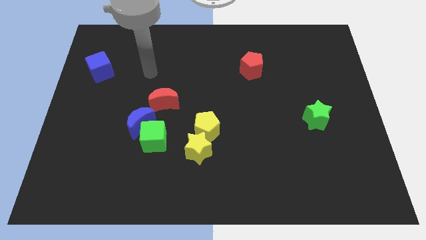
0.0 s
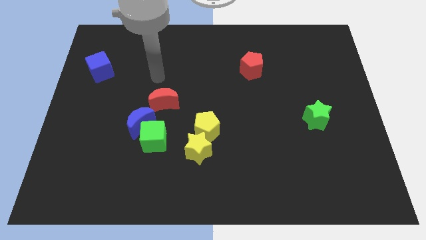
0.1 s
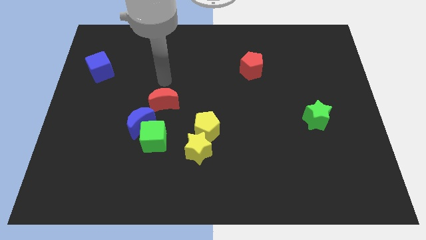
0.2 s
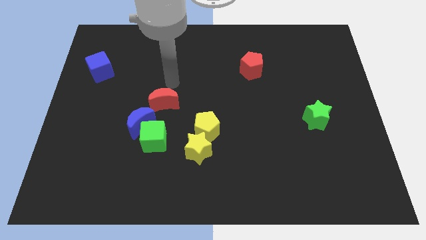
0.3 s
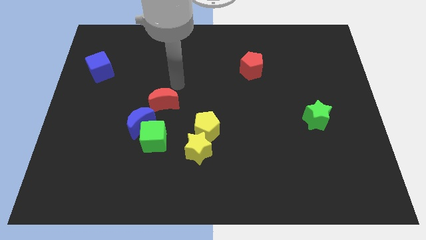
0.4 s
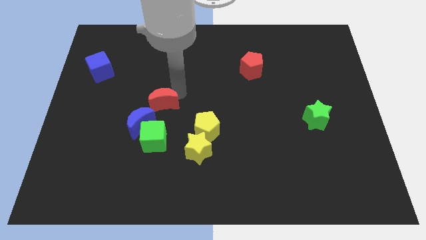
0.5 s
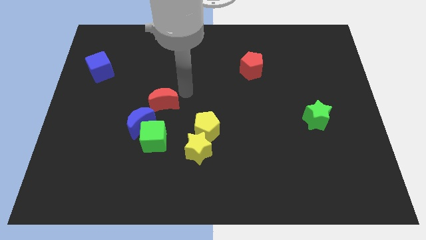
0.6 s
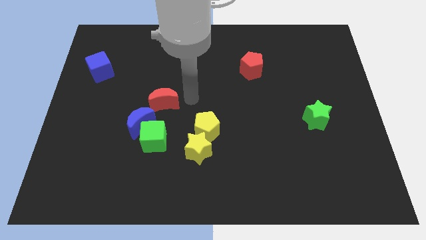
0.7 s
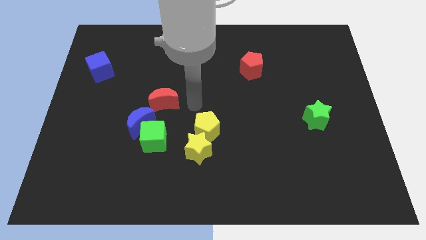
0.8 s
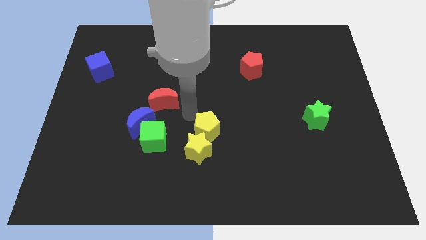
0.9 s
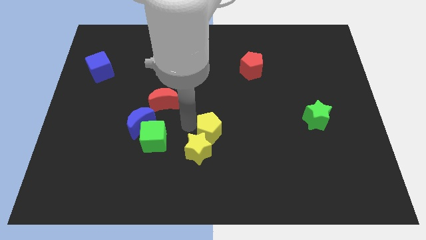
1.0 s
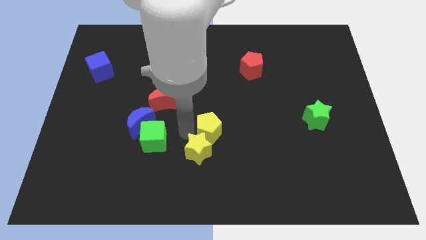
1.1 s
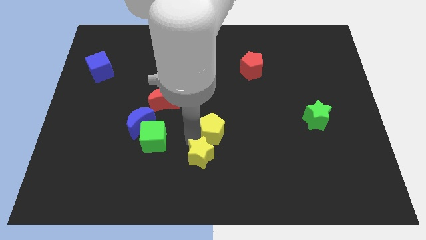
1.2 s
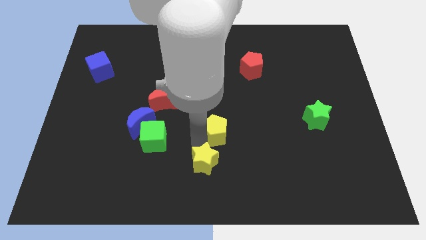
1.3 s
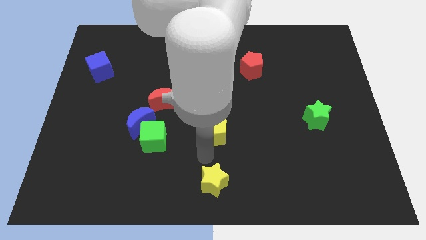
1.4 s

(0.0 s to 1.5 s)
pull the yellow pentagon apart from the yellow star

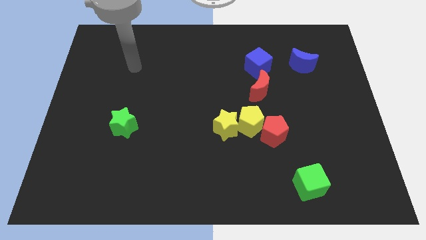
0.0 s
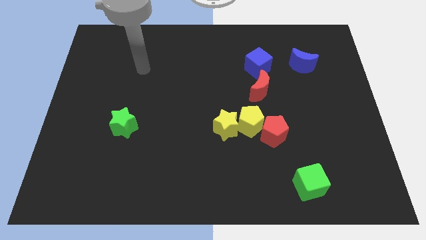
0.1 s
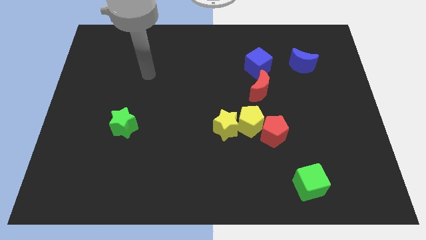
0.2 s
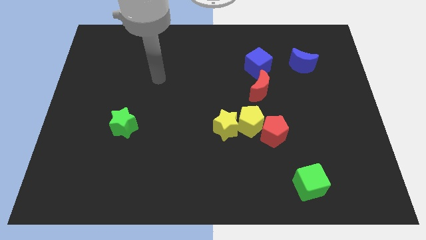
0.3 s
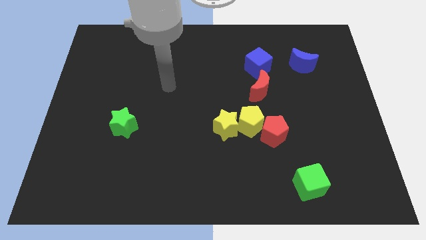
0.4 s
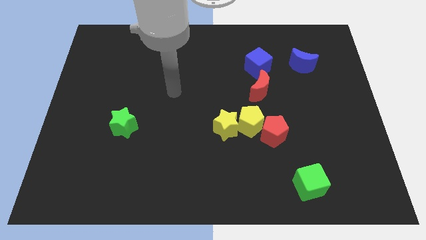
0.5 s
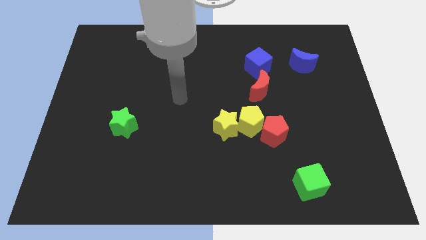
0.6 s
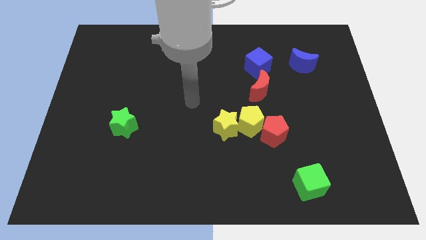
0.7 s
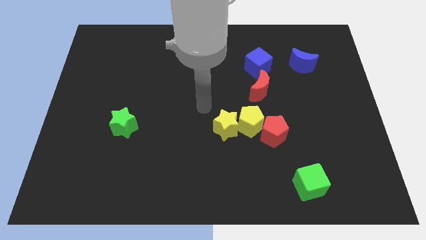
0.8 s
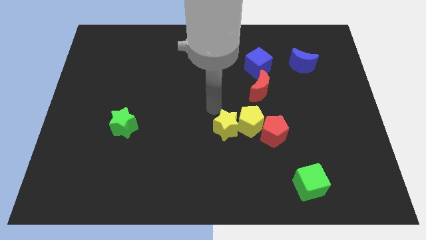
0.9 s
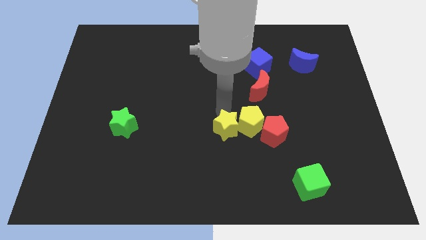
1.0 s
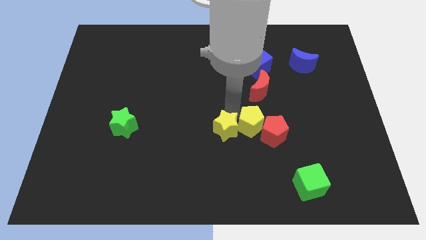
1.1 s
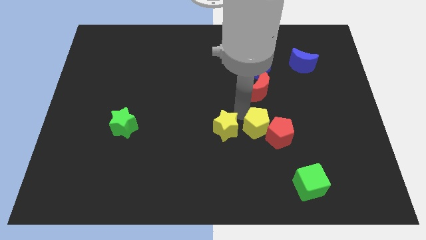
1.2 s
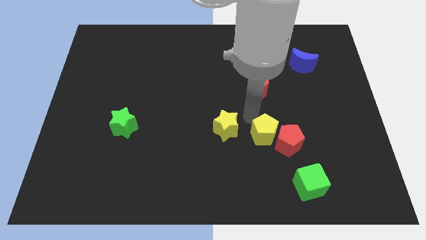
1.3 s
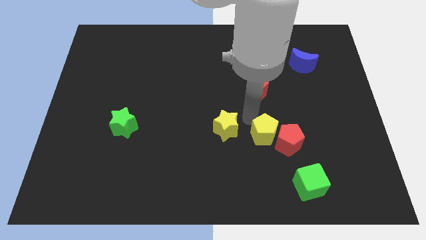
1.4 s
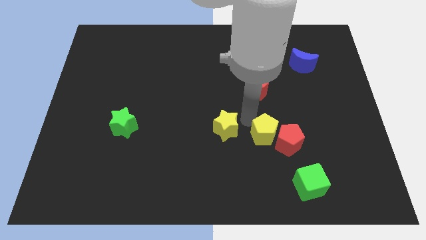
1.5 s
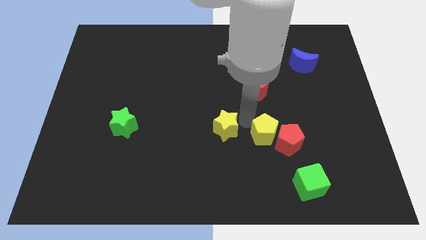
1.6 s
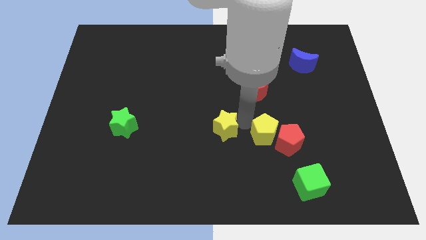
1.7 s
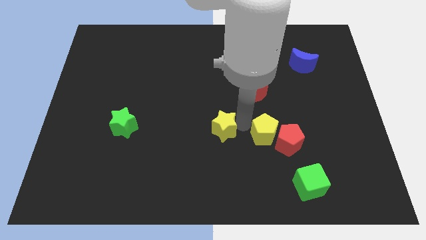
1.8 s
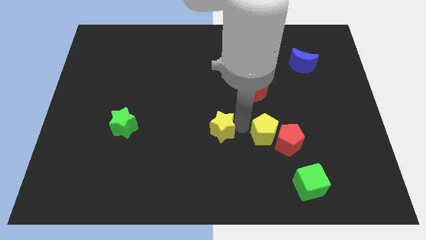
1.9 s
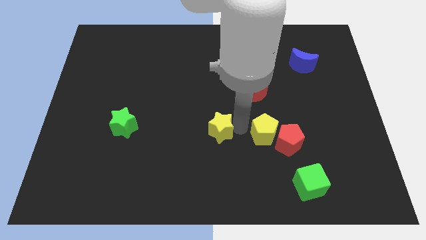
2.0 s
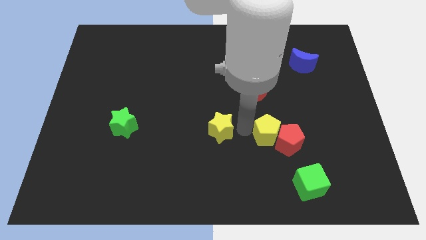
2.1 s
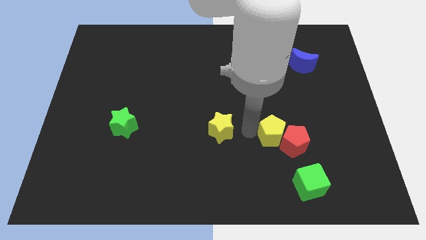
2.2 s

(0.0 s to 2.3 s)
move the yellow star away from the yellow pentagon

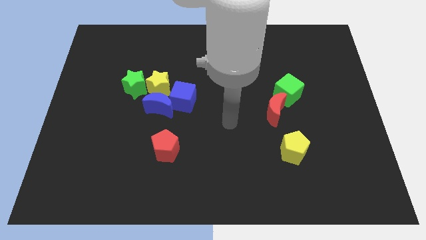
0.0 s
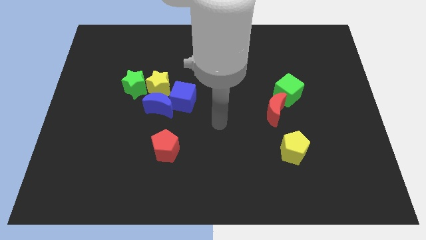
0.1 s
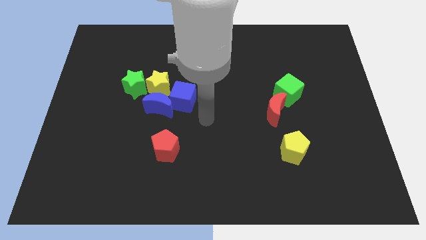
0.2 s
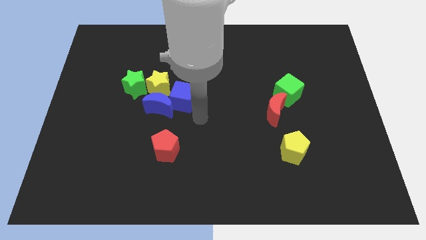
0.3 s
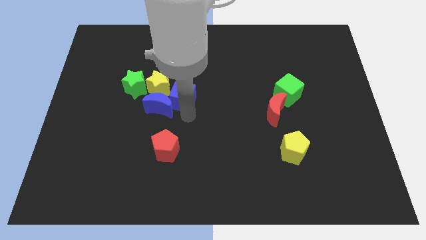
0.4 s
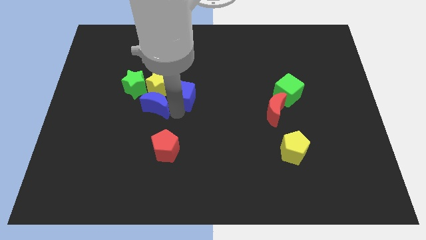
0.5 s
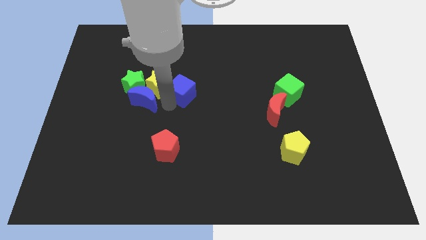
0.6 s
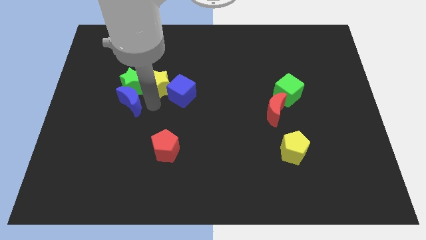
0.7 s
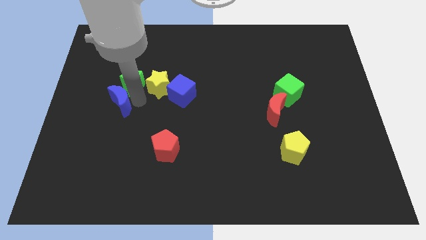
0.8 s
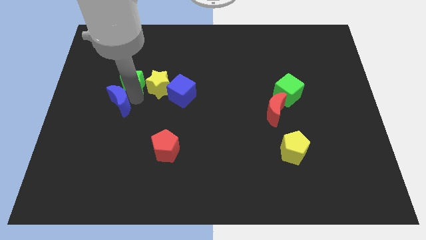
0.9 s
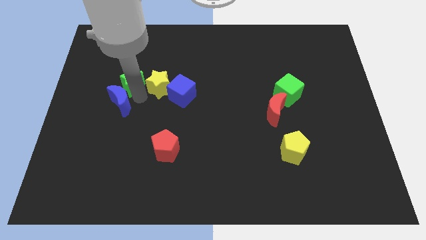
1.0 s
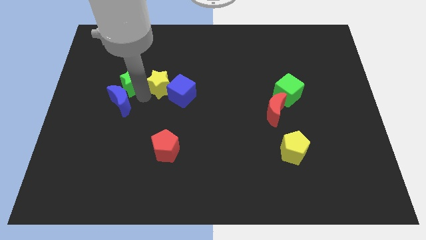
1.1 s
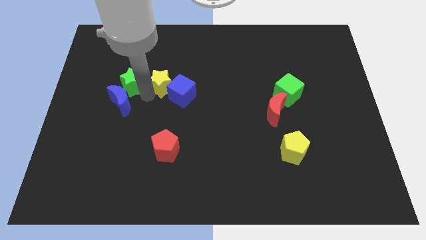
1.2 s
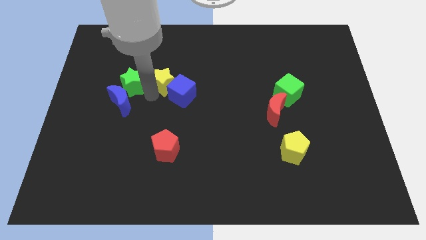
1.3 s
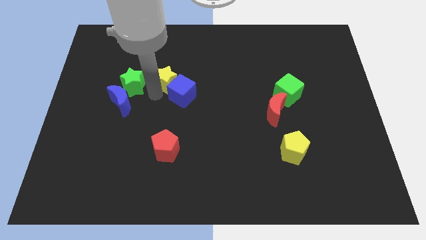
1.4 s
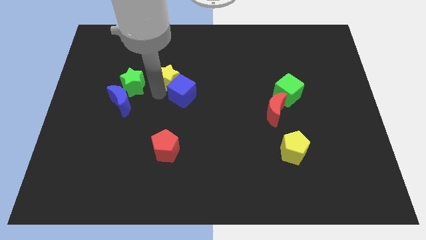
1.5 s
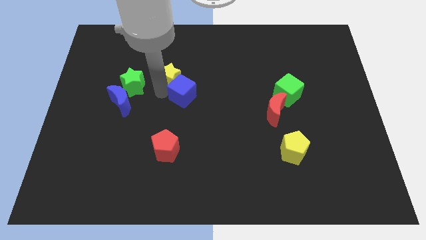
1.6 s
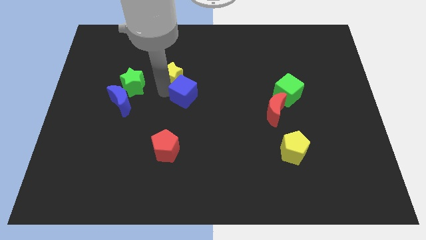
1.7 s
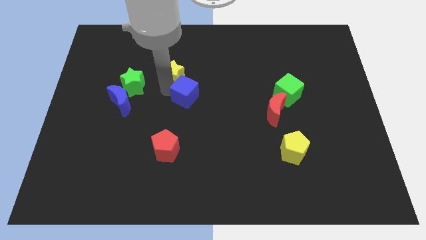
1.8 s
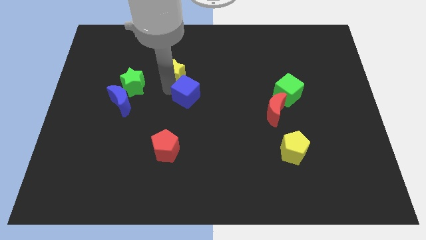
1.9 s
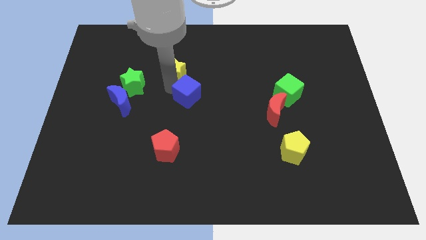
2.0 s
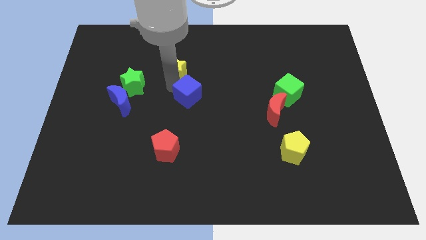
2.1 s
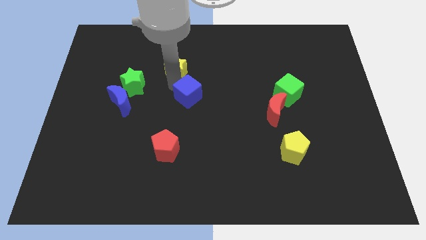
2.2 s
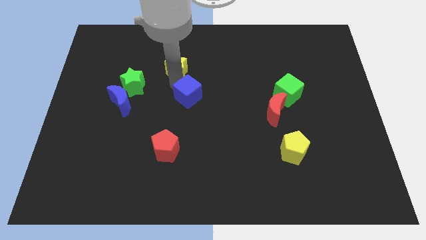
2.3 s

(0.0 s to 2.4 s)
separate the yellow star from the group

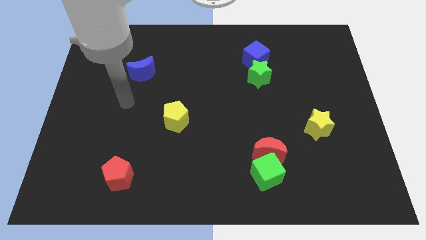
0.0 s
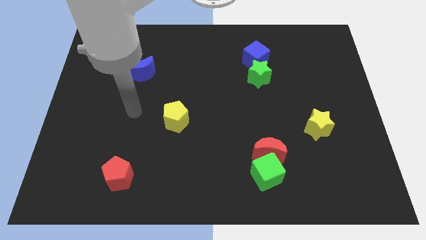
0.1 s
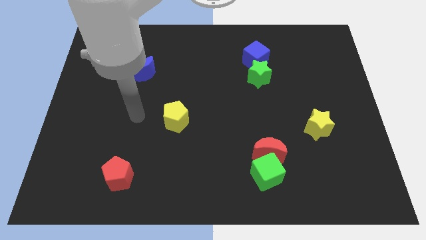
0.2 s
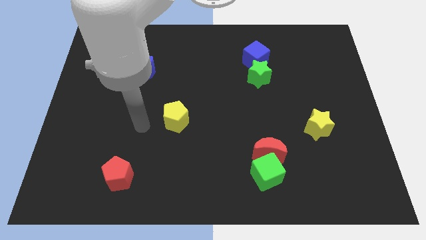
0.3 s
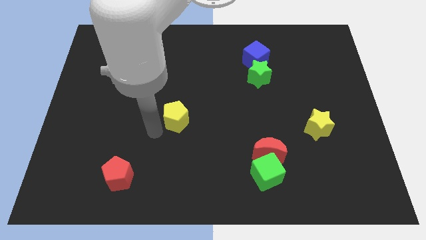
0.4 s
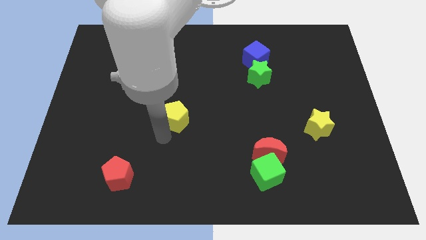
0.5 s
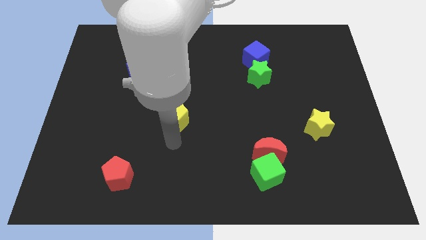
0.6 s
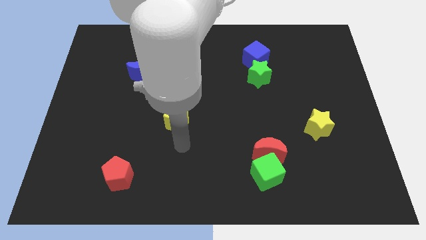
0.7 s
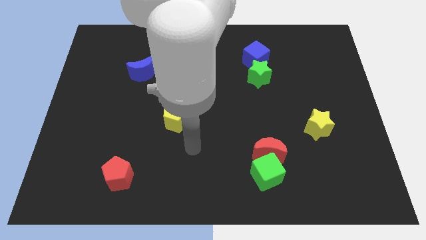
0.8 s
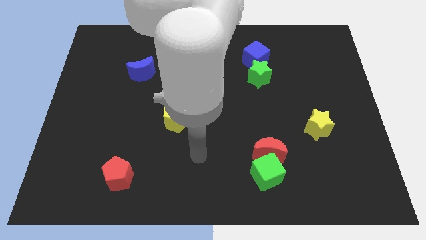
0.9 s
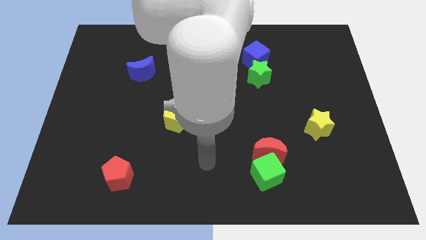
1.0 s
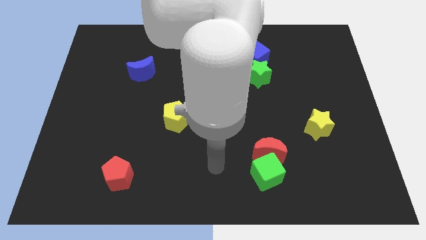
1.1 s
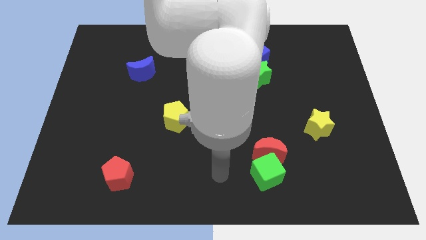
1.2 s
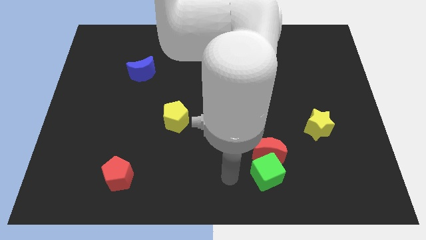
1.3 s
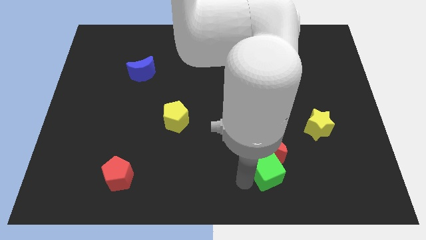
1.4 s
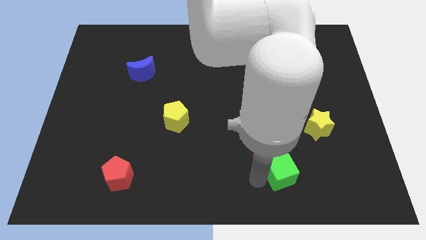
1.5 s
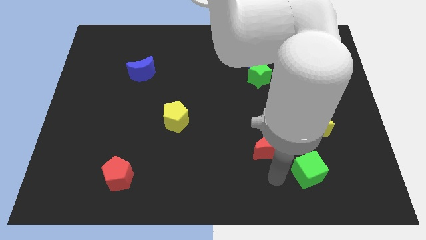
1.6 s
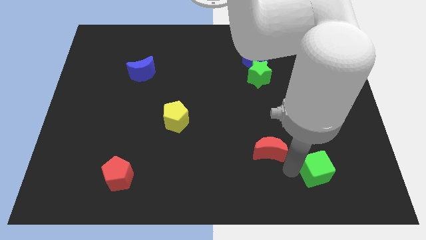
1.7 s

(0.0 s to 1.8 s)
pull the red moon apart from the green cube

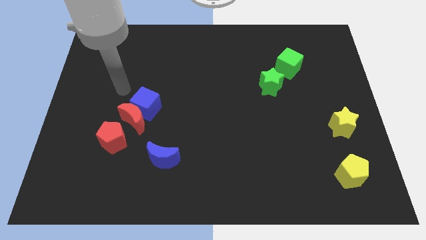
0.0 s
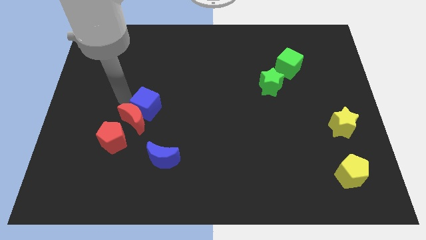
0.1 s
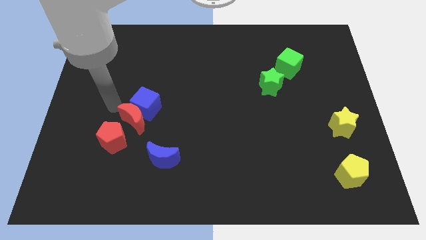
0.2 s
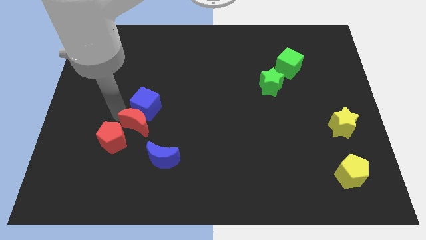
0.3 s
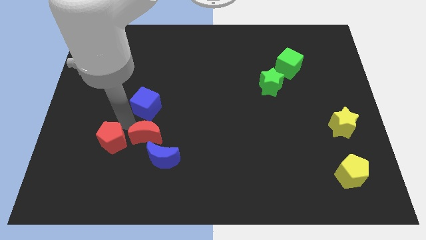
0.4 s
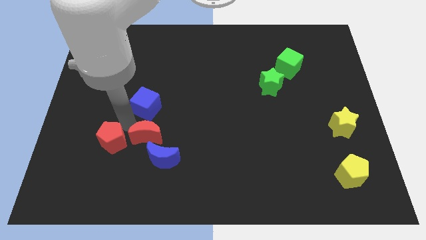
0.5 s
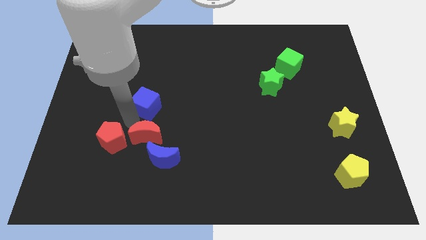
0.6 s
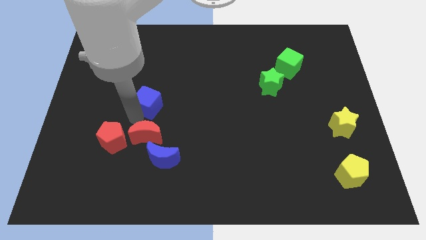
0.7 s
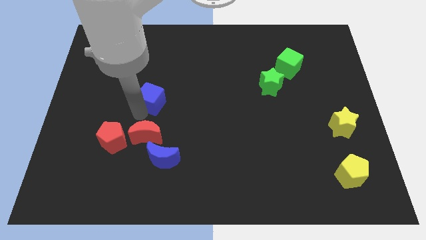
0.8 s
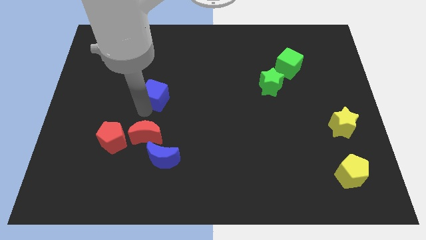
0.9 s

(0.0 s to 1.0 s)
separate the blue cube from the red moon

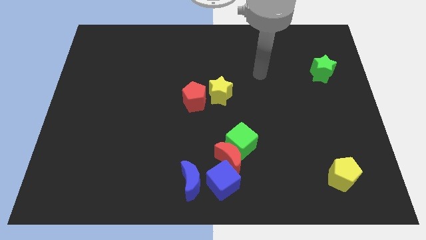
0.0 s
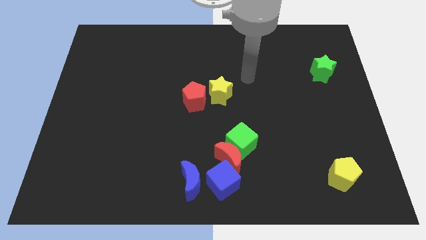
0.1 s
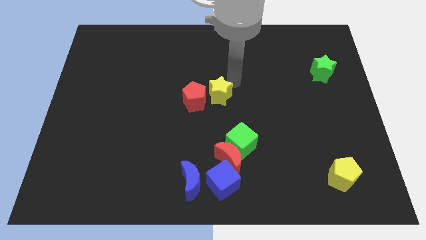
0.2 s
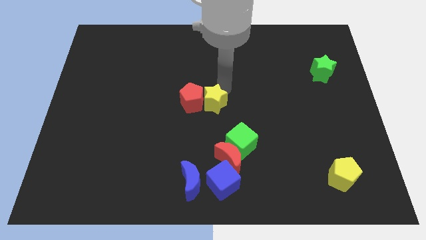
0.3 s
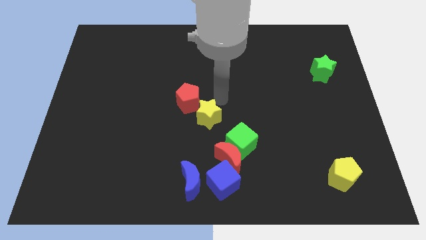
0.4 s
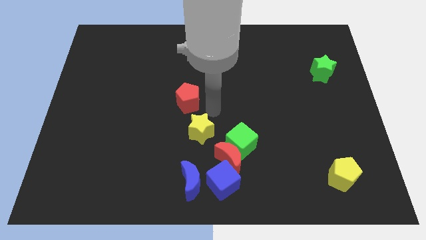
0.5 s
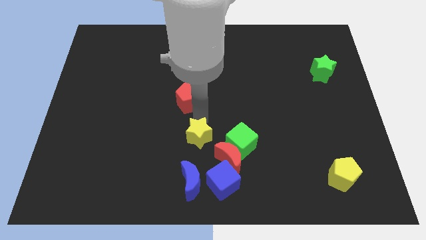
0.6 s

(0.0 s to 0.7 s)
pull the red pentagon apart from the yellow star
